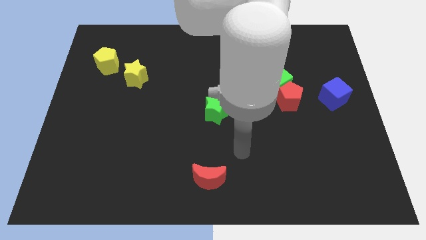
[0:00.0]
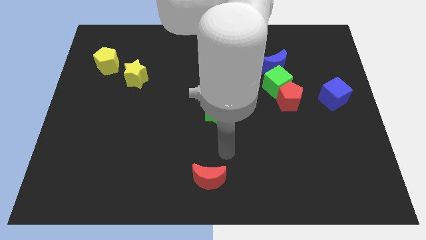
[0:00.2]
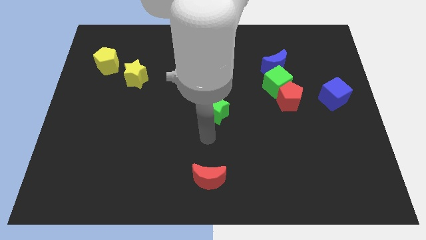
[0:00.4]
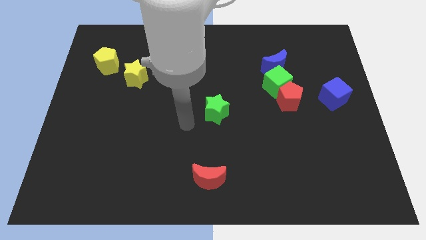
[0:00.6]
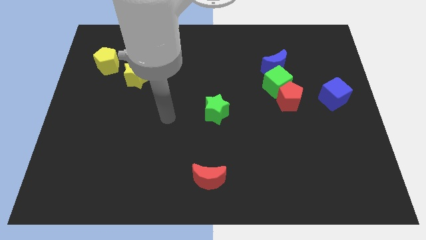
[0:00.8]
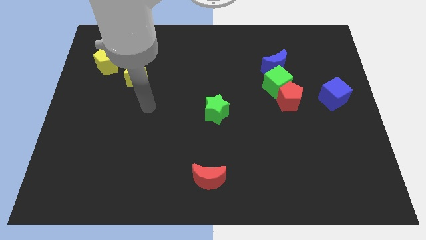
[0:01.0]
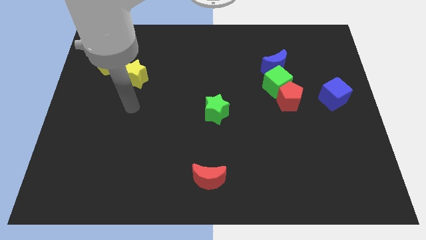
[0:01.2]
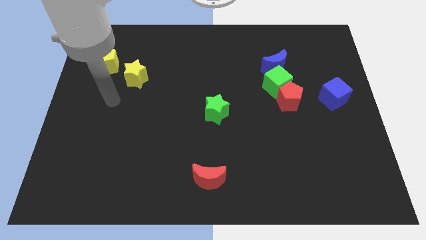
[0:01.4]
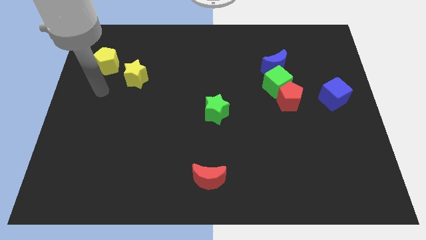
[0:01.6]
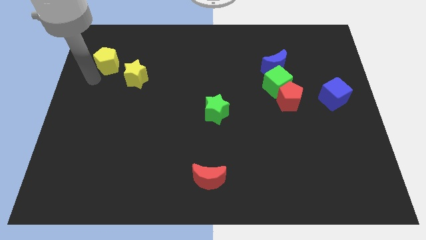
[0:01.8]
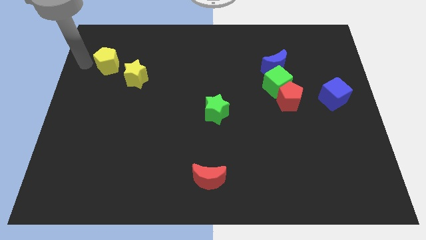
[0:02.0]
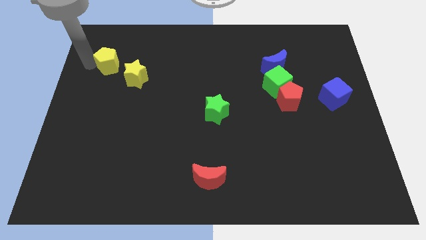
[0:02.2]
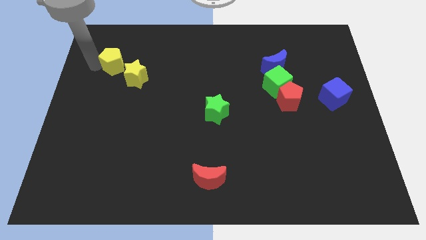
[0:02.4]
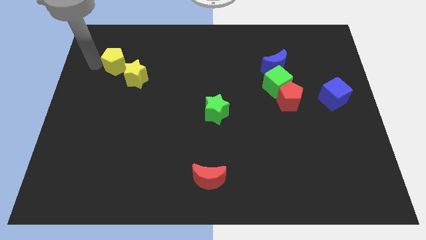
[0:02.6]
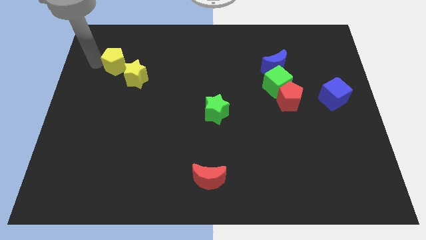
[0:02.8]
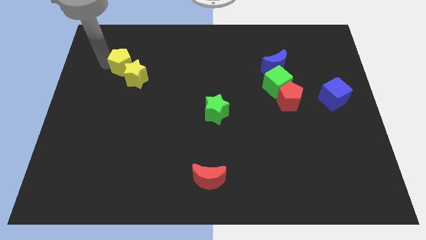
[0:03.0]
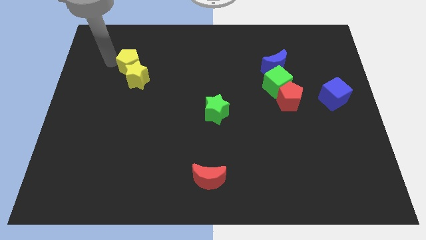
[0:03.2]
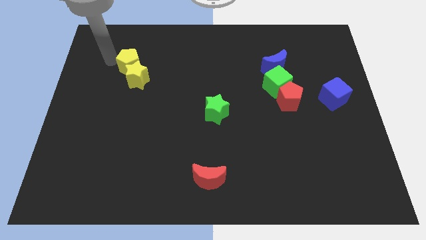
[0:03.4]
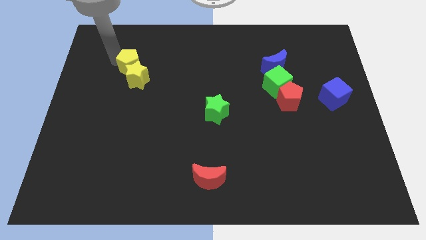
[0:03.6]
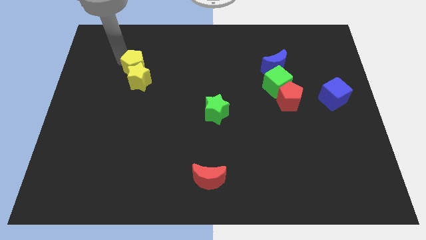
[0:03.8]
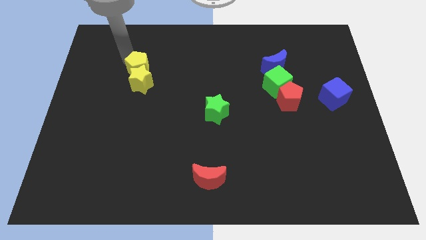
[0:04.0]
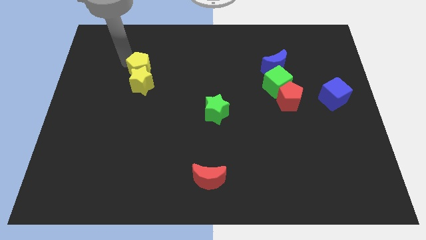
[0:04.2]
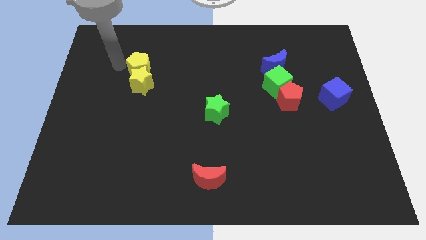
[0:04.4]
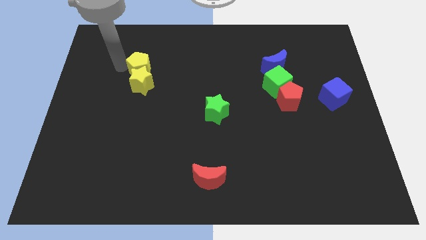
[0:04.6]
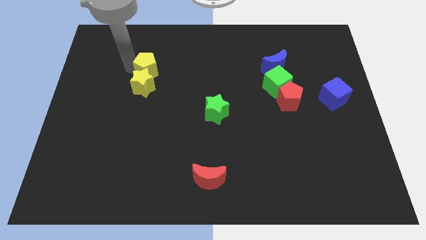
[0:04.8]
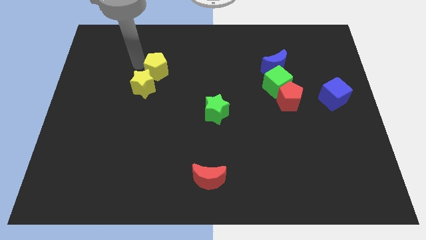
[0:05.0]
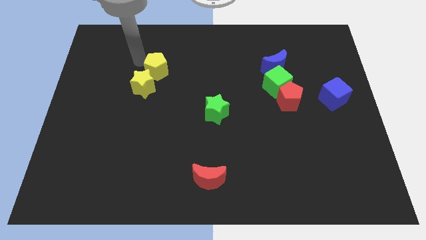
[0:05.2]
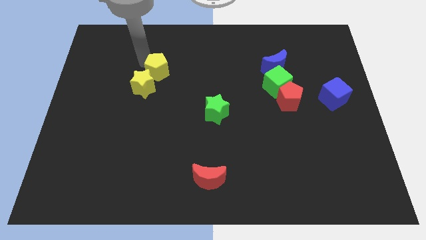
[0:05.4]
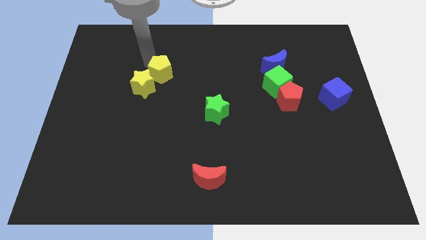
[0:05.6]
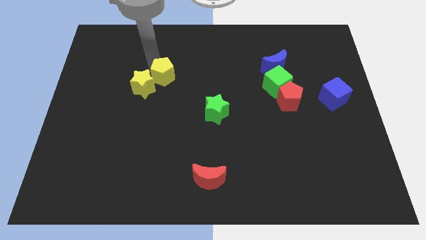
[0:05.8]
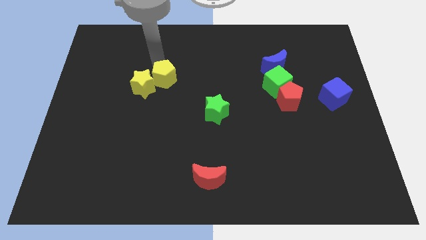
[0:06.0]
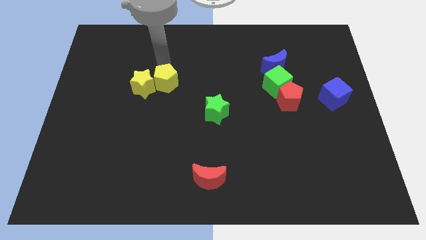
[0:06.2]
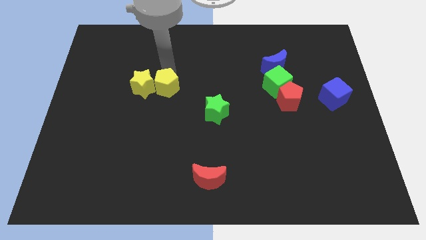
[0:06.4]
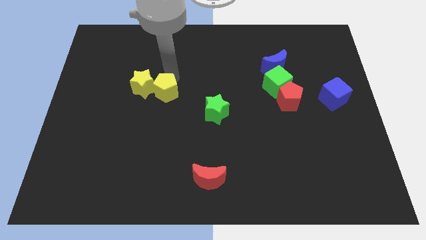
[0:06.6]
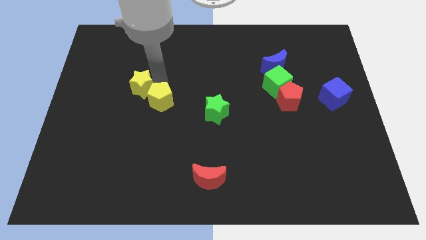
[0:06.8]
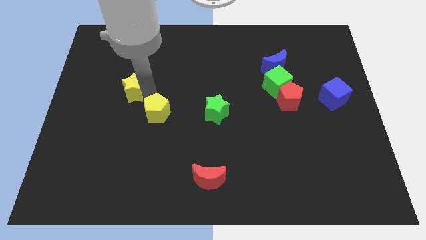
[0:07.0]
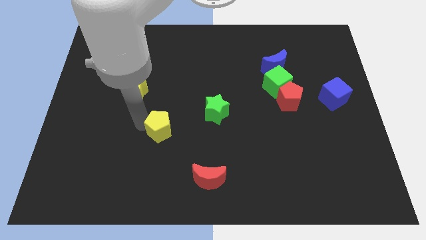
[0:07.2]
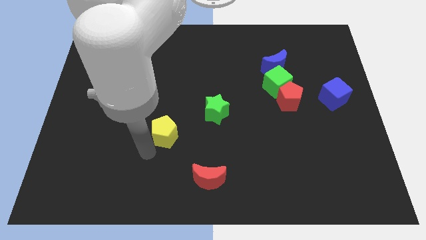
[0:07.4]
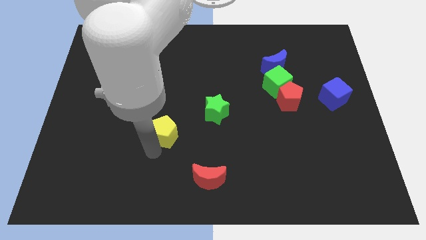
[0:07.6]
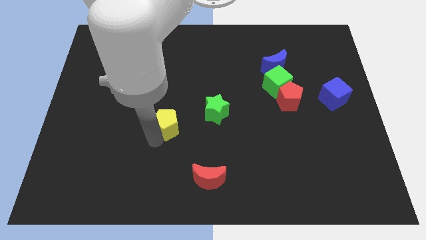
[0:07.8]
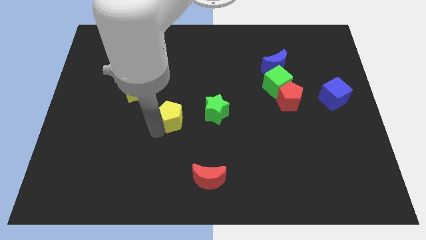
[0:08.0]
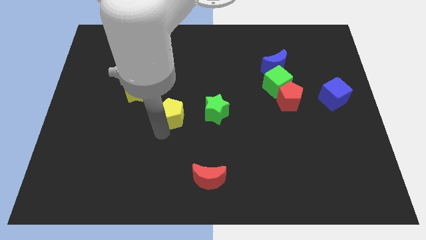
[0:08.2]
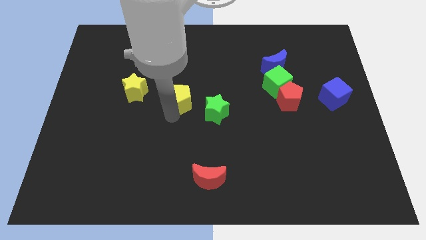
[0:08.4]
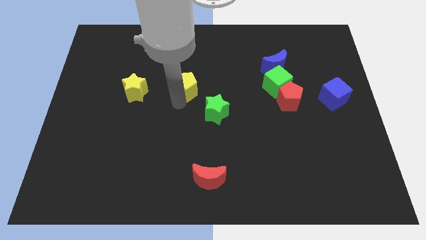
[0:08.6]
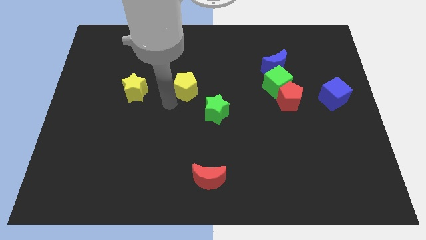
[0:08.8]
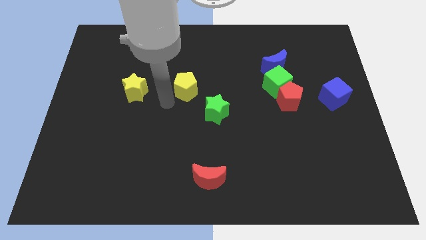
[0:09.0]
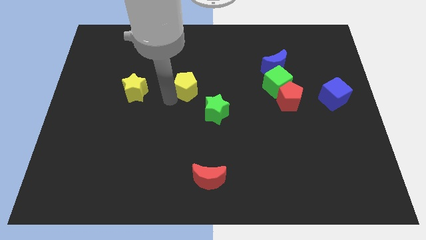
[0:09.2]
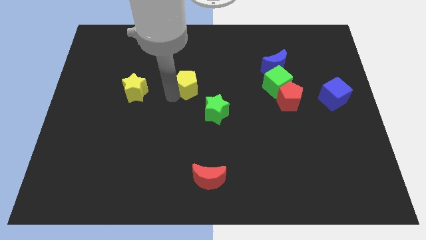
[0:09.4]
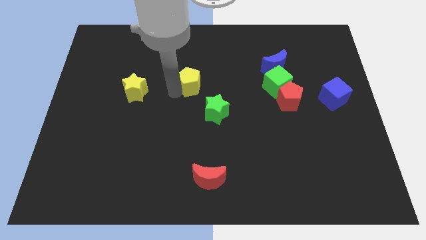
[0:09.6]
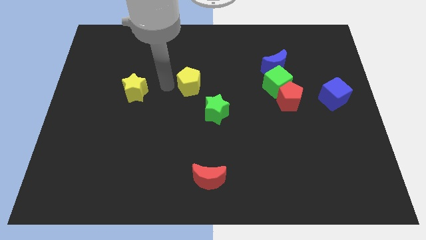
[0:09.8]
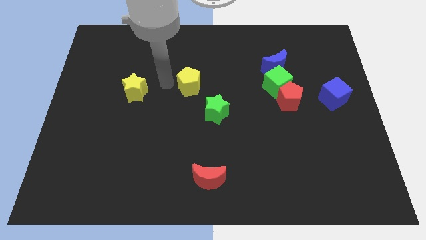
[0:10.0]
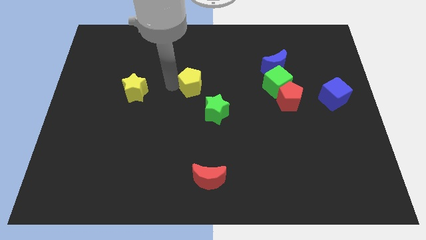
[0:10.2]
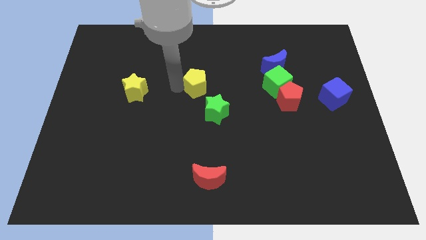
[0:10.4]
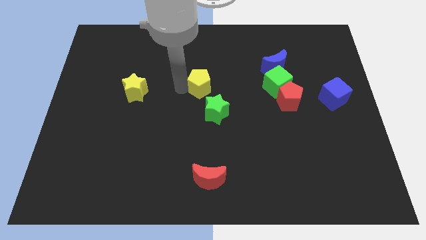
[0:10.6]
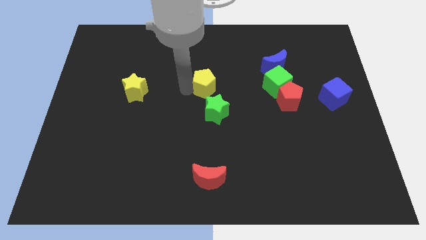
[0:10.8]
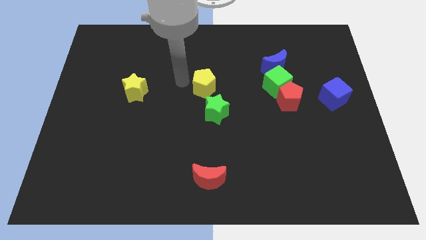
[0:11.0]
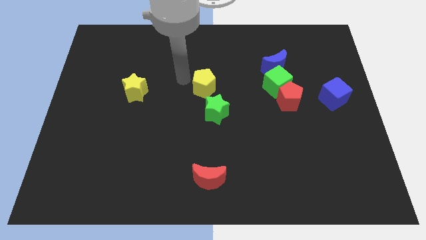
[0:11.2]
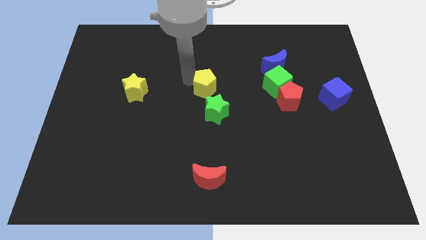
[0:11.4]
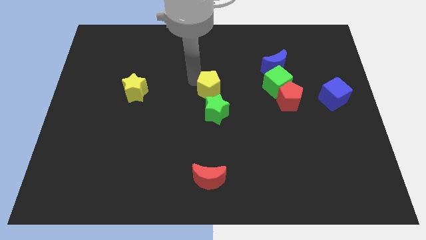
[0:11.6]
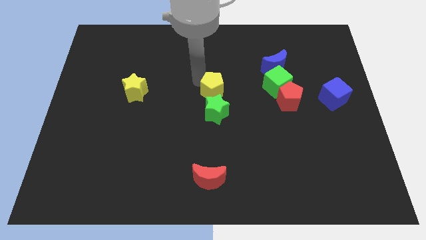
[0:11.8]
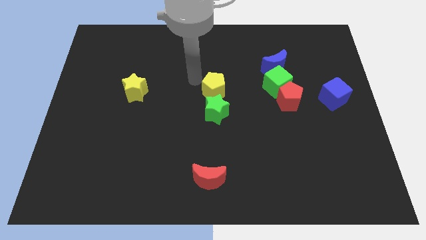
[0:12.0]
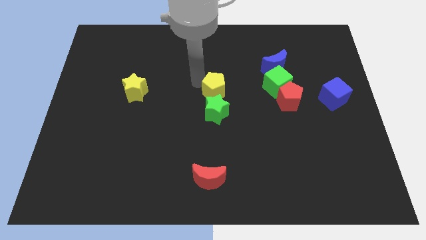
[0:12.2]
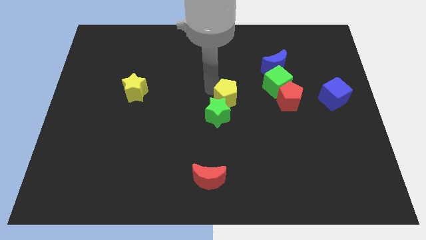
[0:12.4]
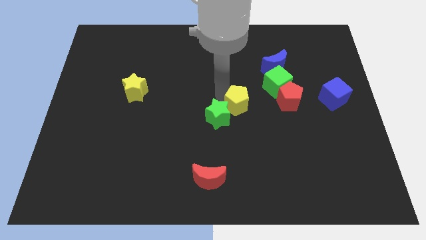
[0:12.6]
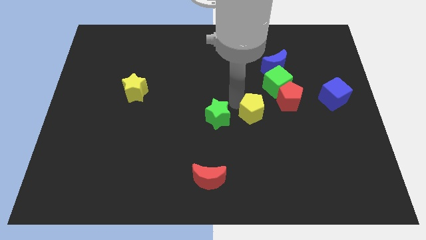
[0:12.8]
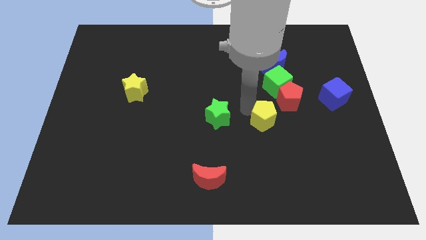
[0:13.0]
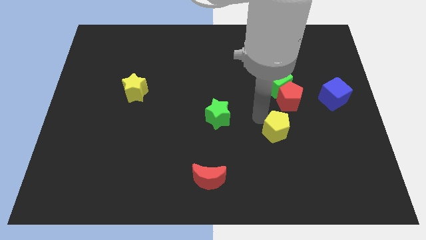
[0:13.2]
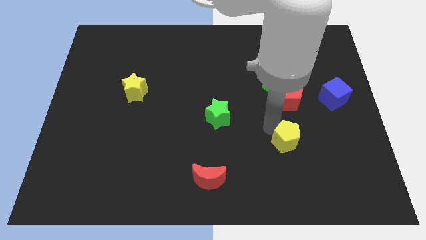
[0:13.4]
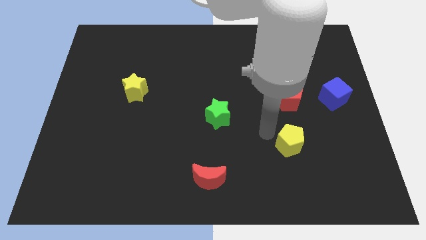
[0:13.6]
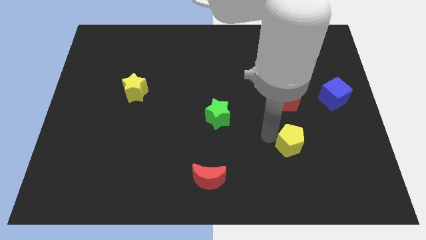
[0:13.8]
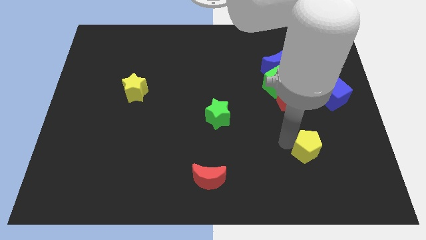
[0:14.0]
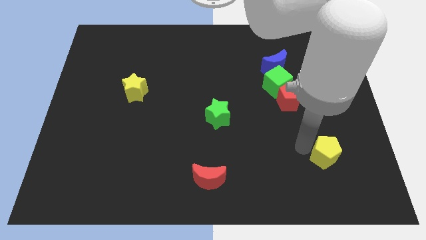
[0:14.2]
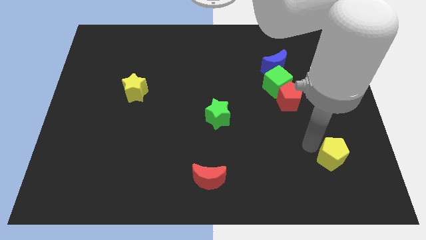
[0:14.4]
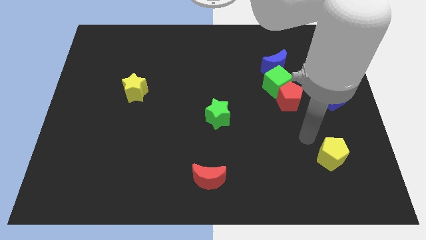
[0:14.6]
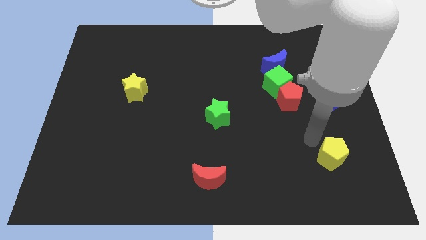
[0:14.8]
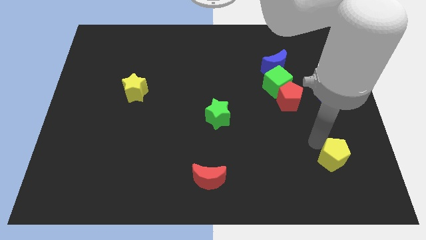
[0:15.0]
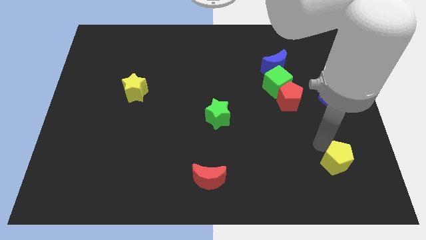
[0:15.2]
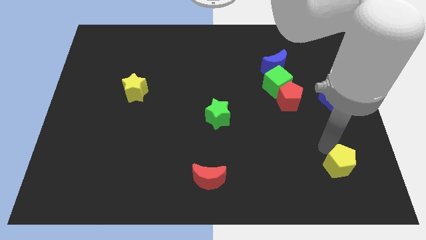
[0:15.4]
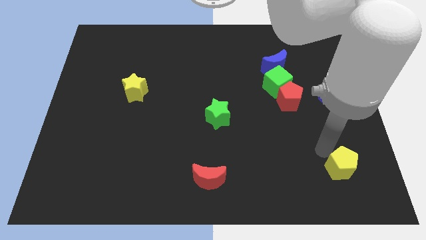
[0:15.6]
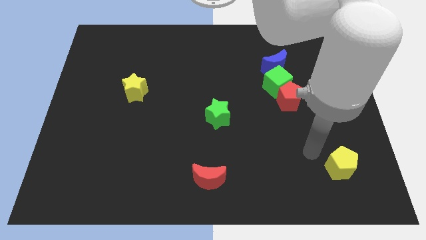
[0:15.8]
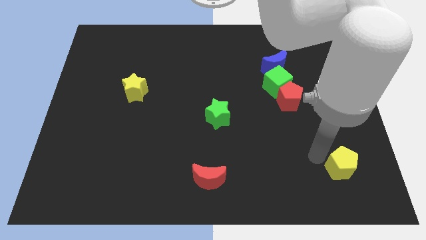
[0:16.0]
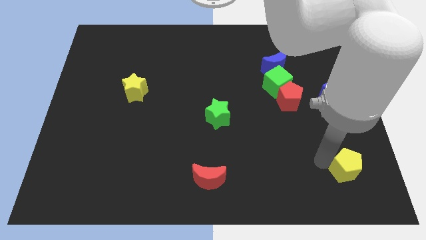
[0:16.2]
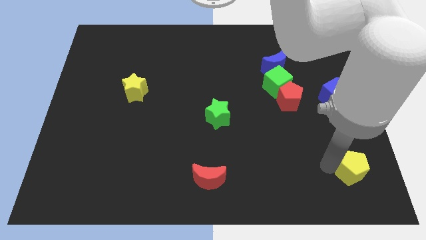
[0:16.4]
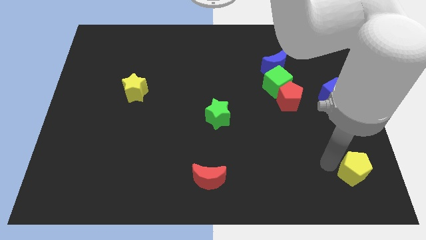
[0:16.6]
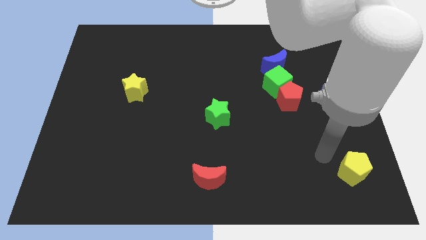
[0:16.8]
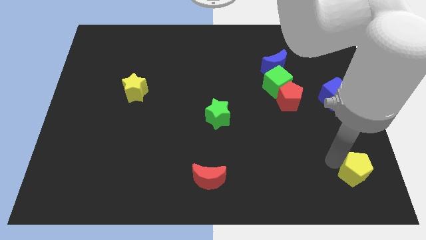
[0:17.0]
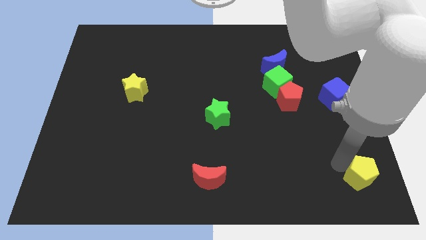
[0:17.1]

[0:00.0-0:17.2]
push the yellow pentagon to the lower right corner
